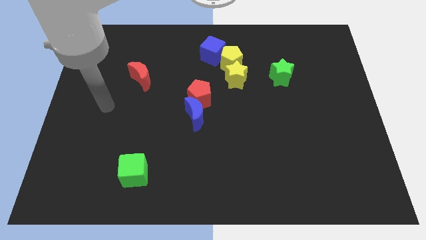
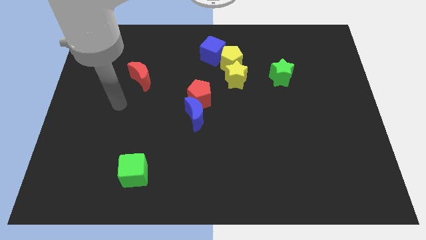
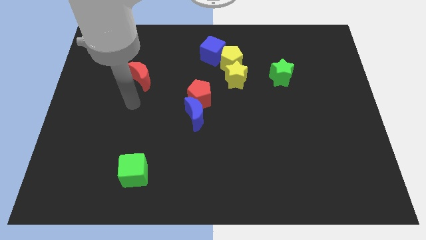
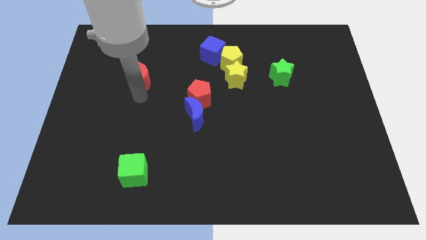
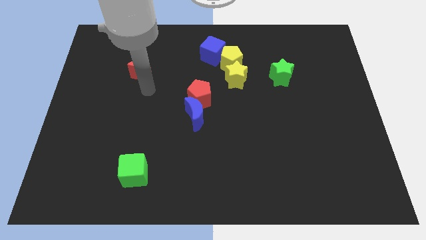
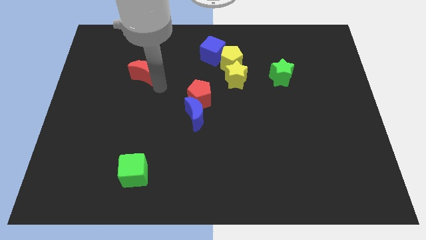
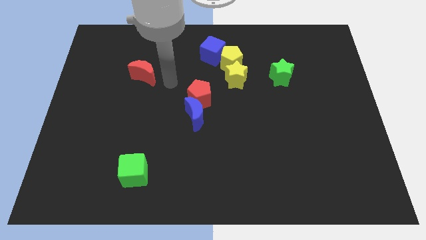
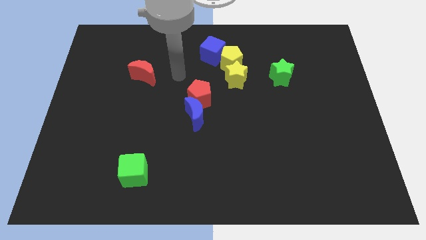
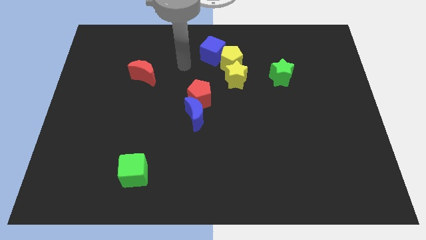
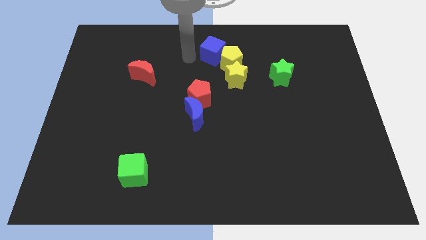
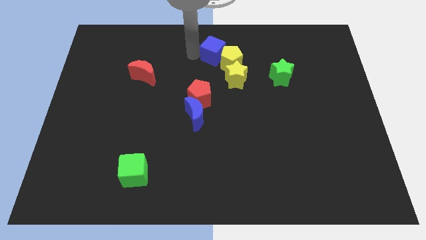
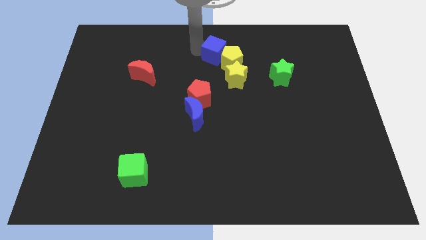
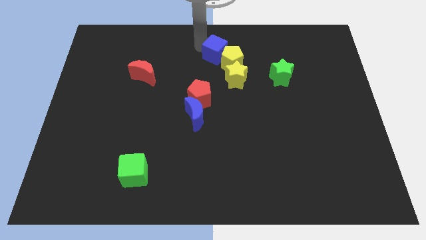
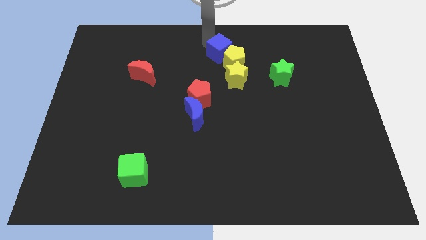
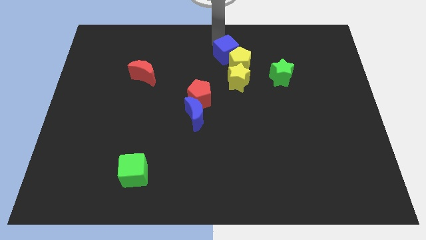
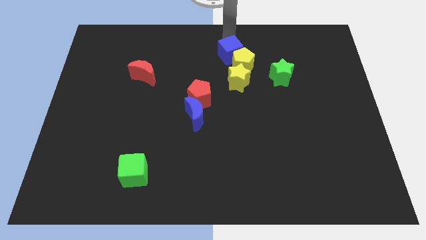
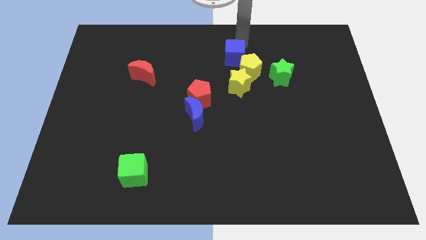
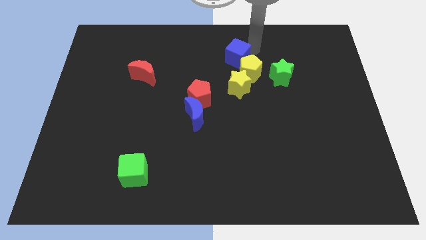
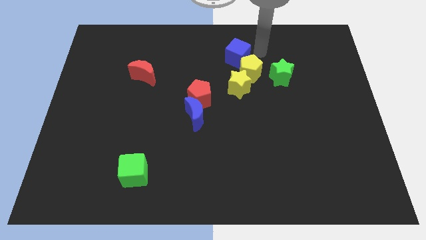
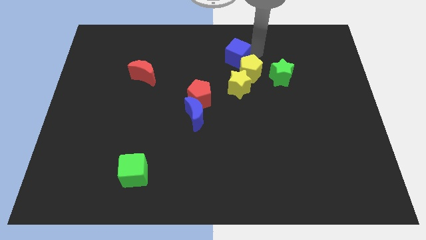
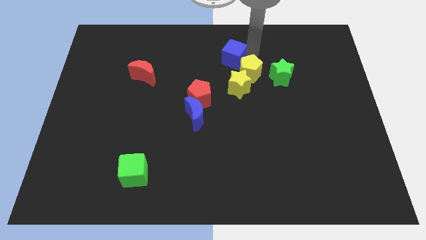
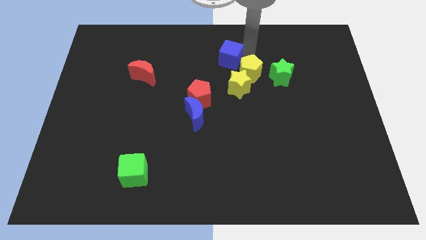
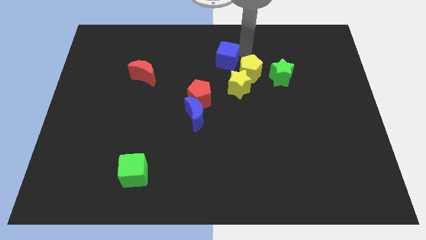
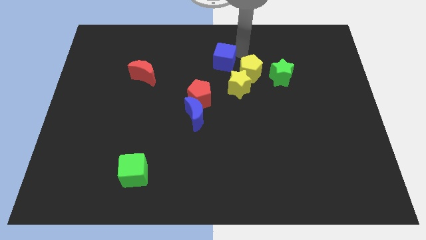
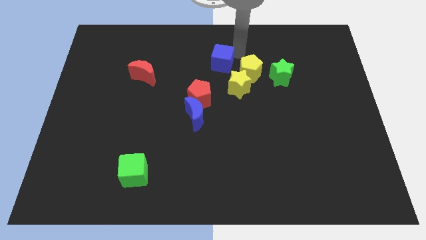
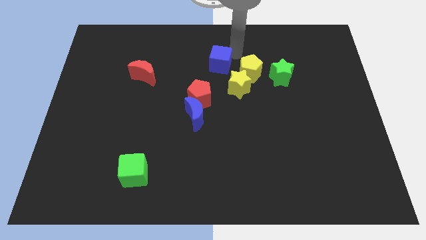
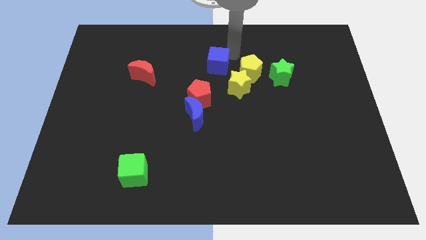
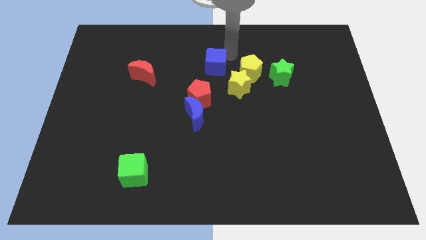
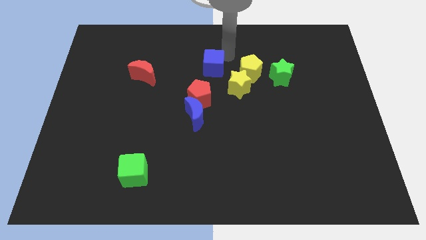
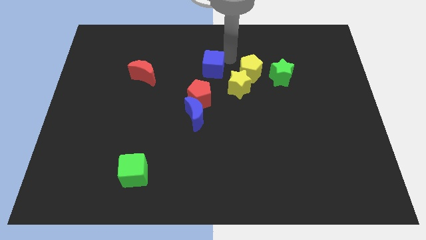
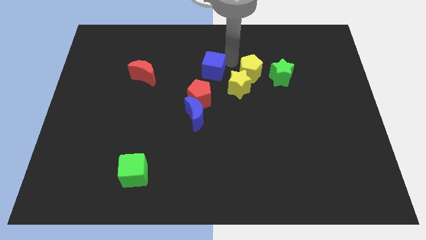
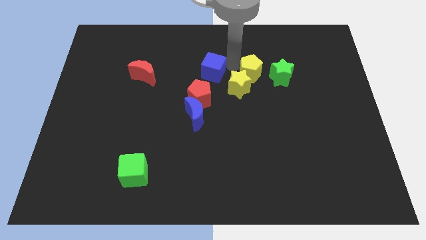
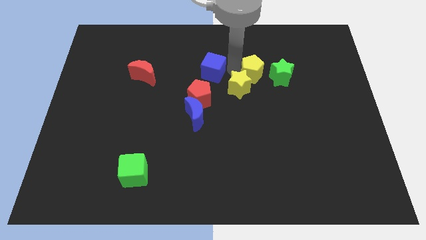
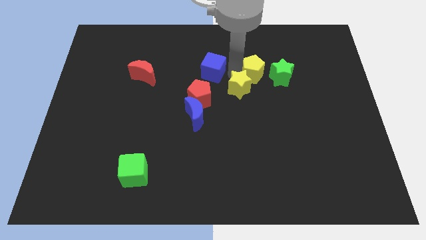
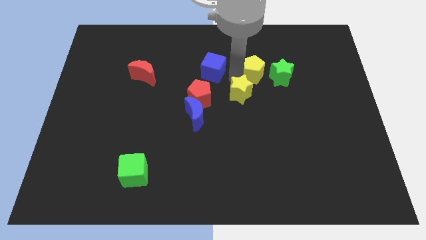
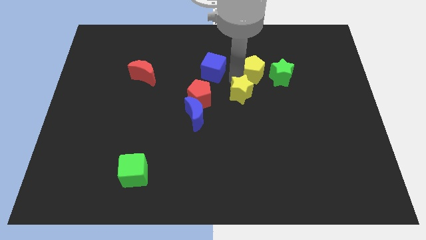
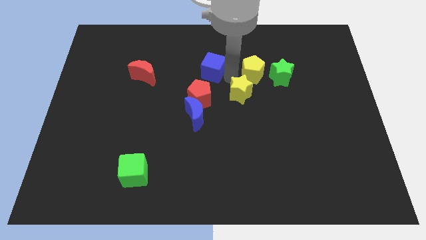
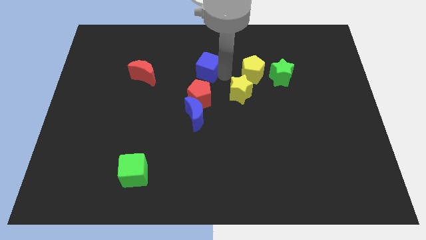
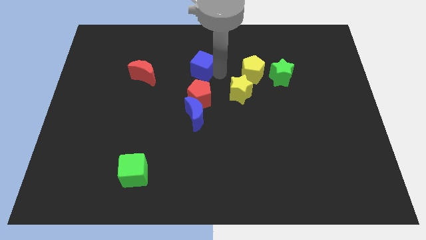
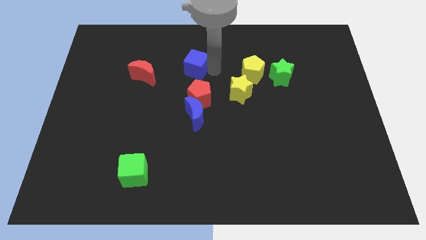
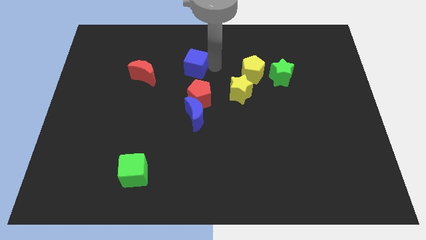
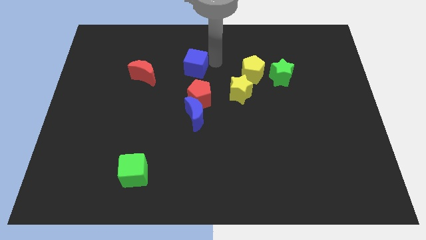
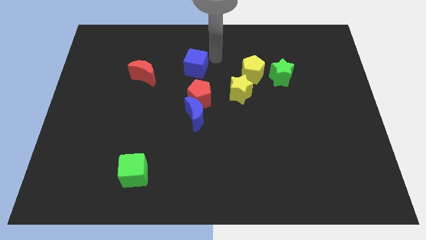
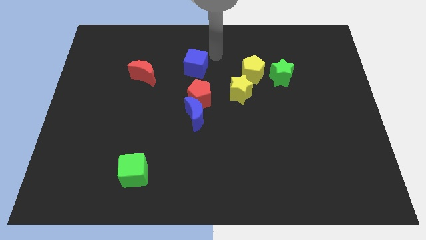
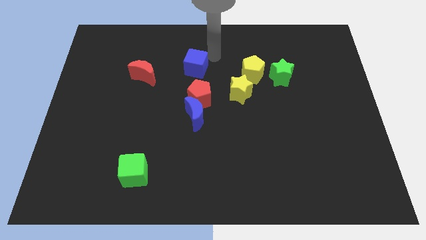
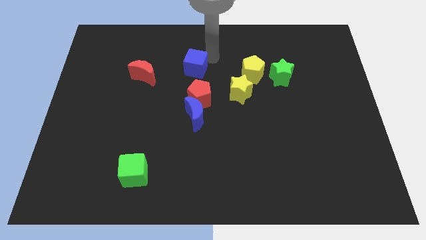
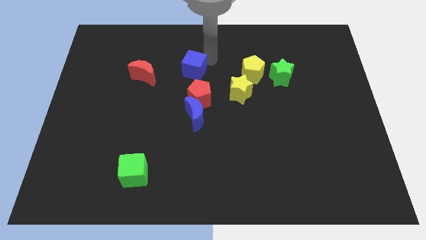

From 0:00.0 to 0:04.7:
slide the blue cube downwards and left a little bit

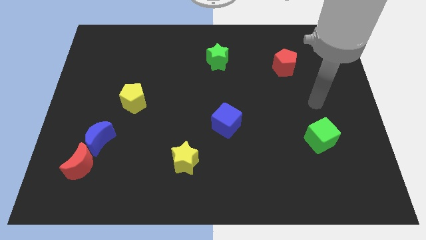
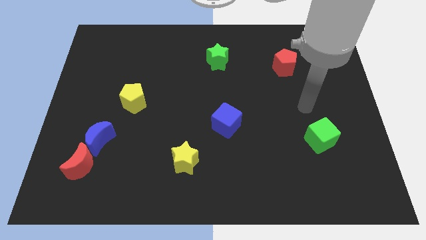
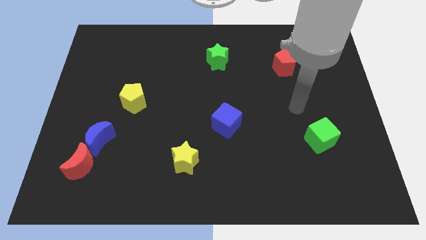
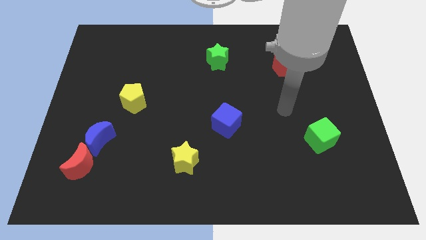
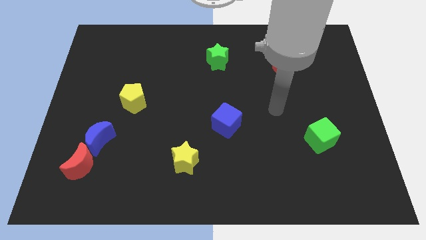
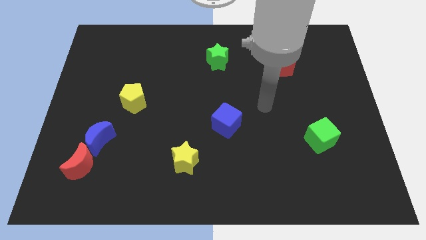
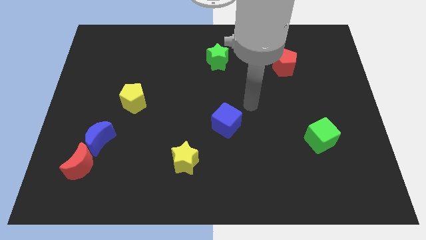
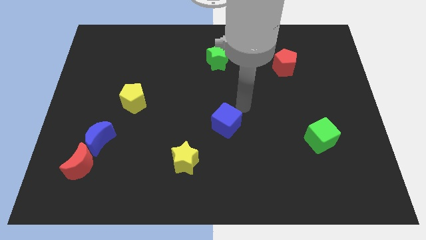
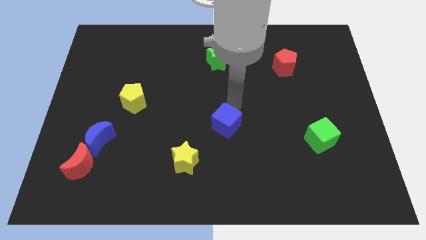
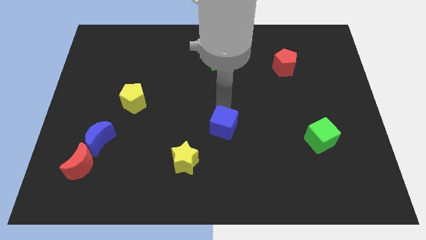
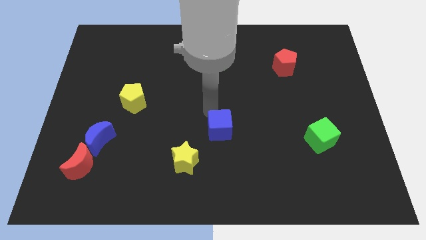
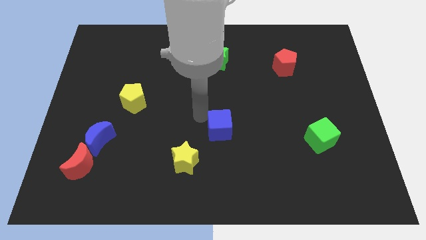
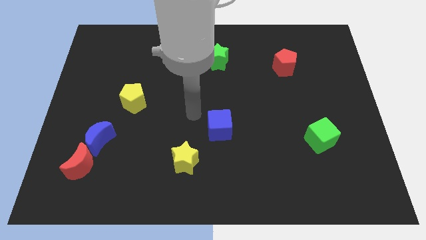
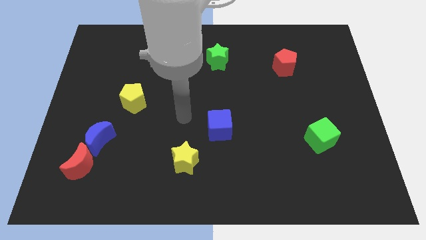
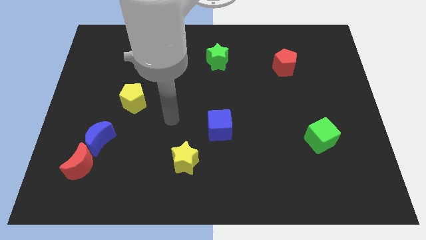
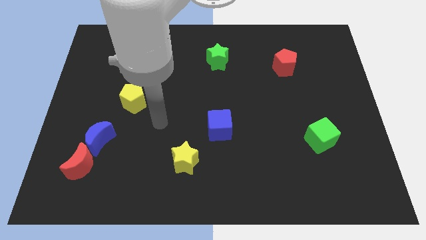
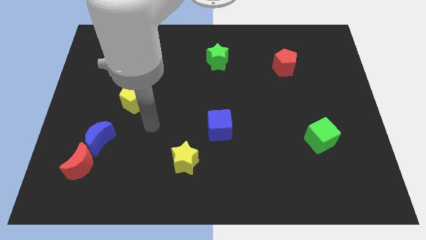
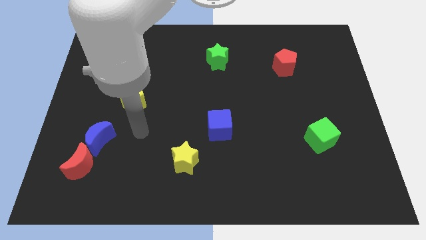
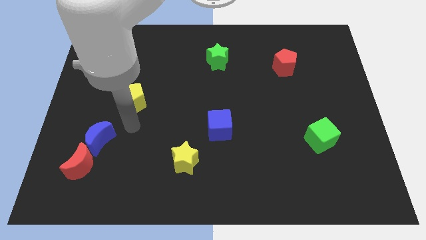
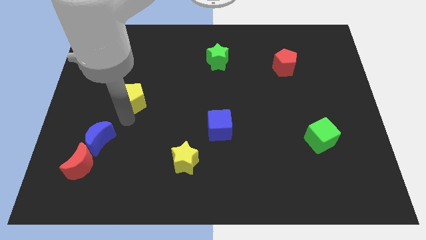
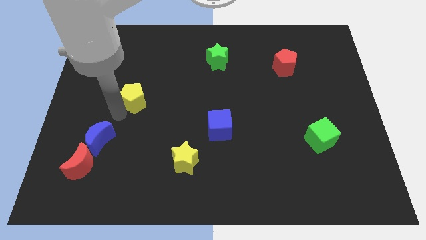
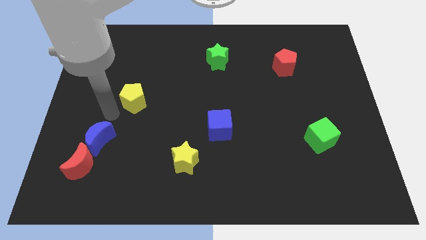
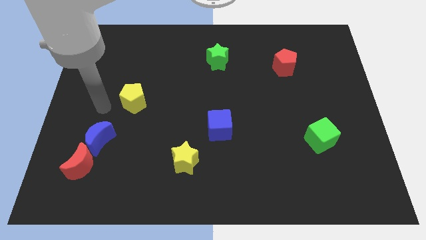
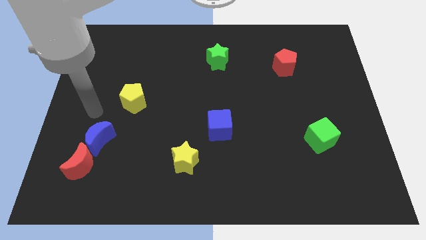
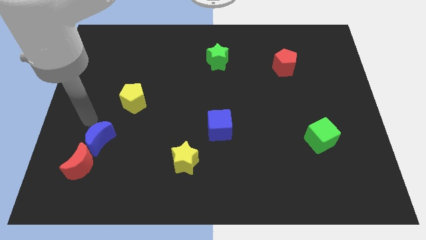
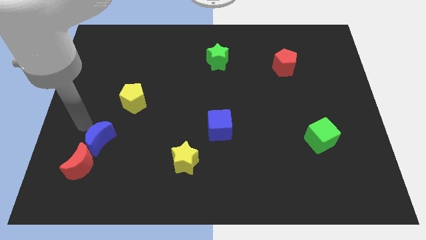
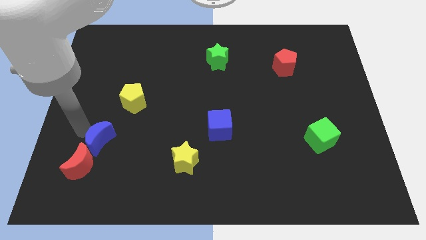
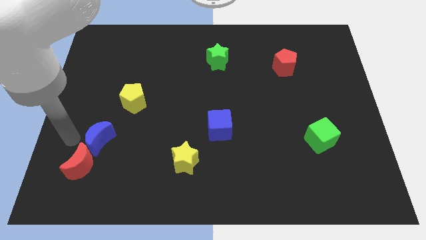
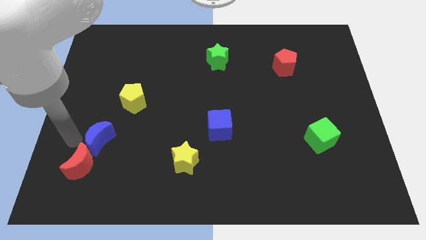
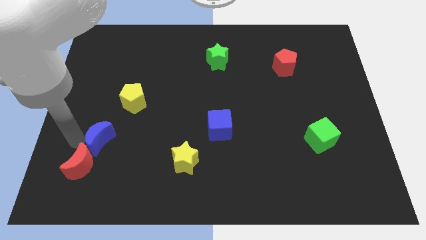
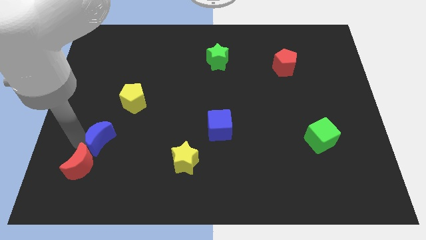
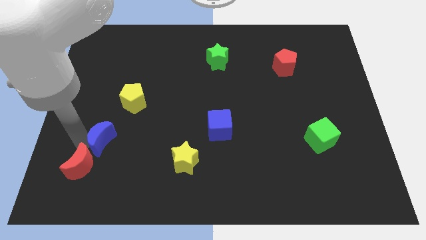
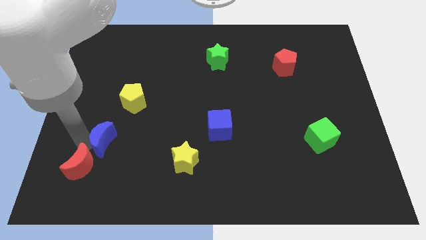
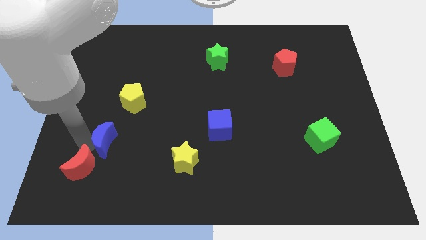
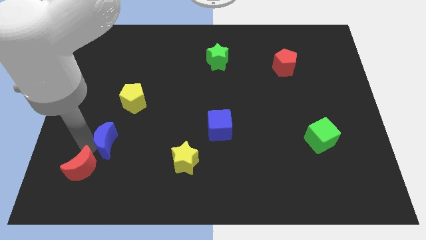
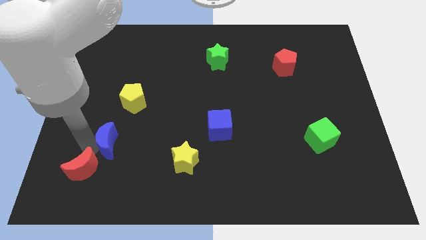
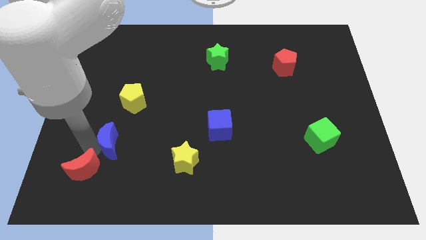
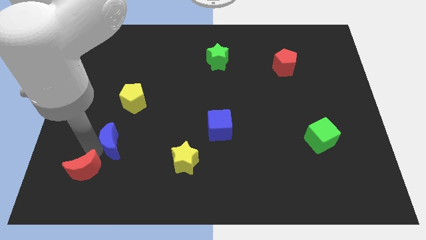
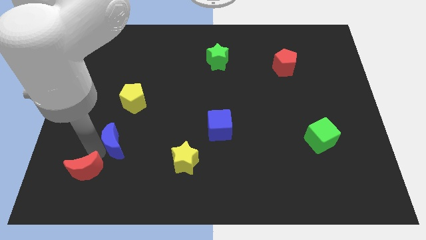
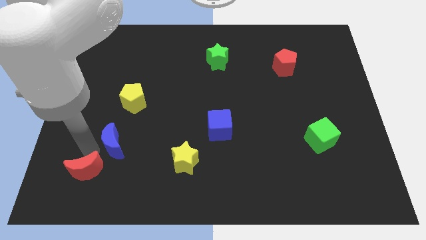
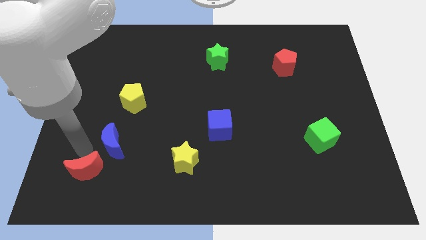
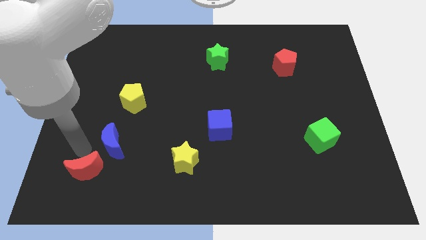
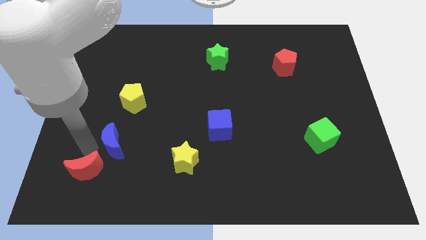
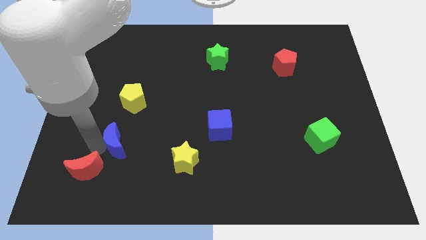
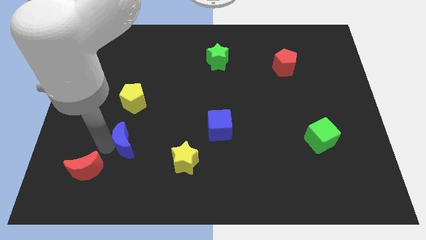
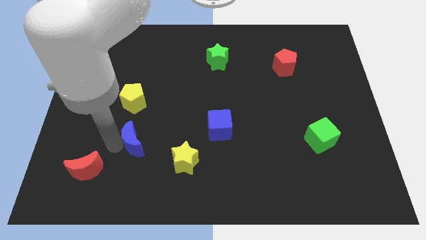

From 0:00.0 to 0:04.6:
slide the blue moon somewhat to the right
